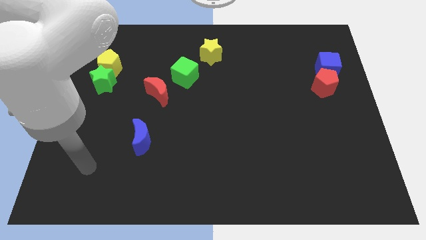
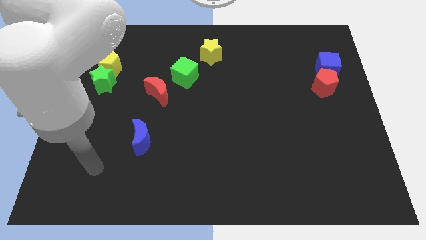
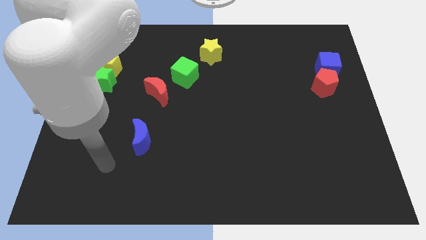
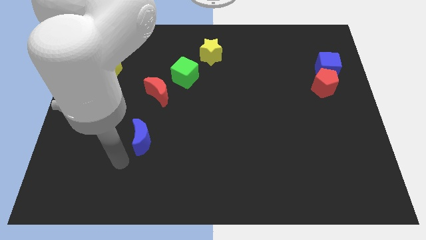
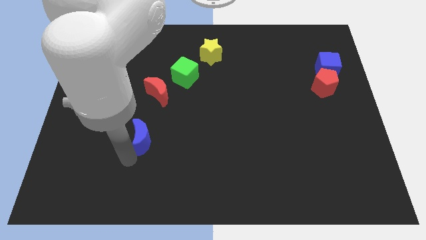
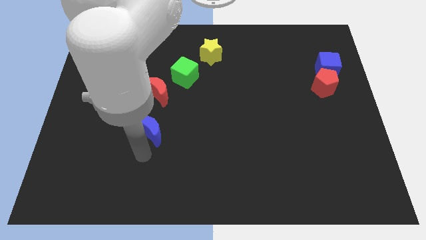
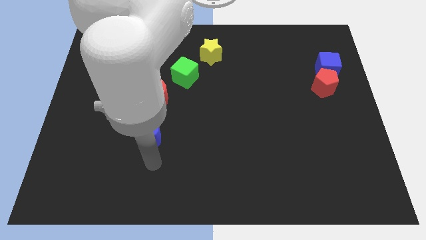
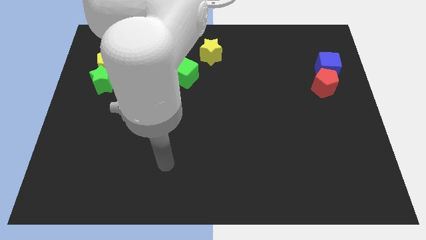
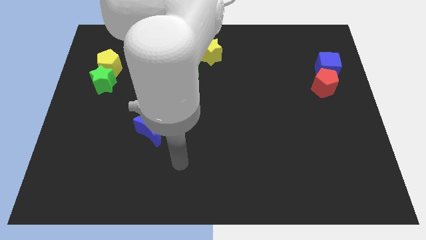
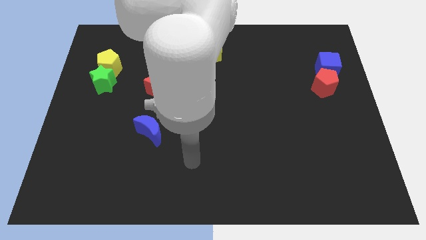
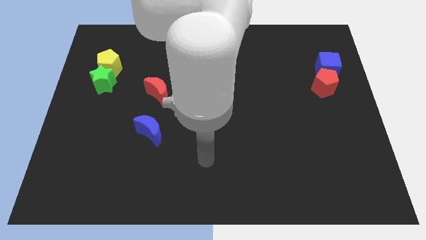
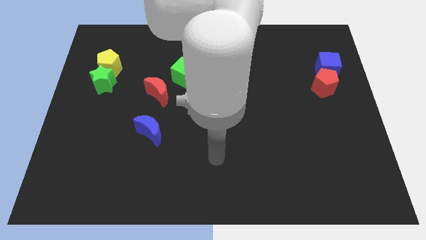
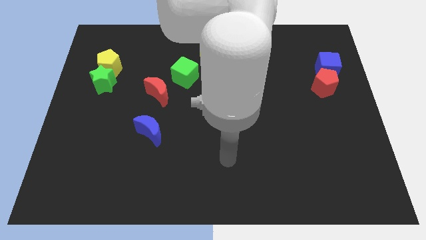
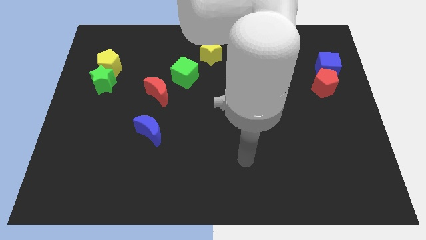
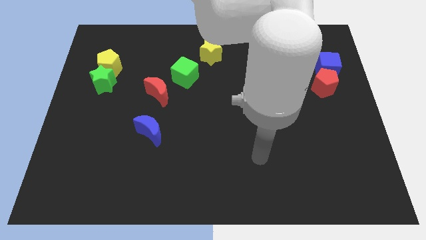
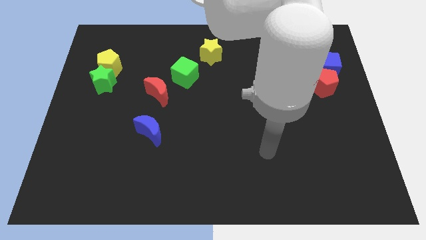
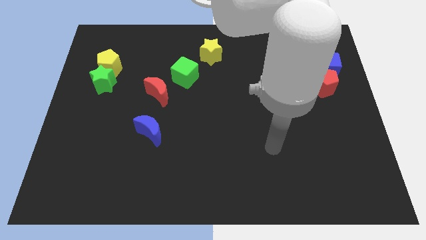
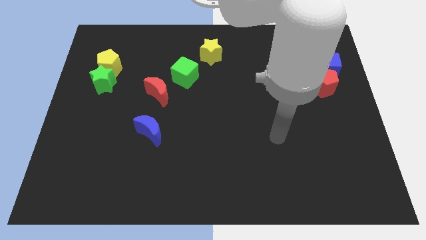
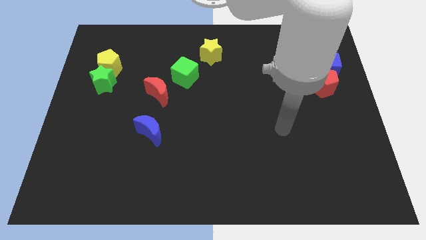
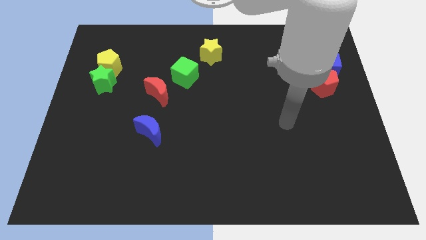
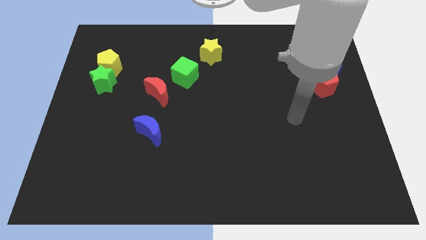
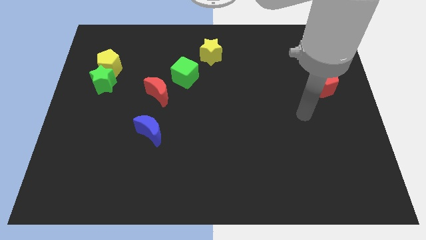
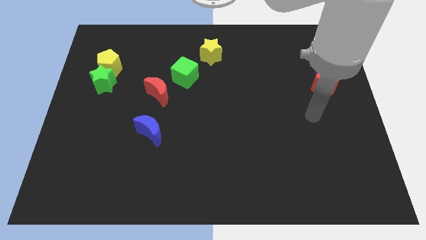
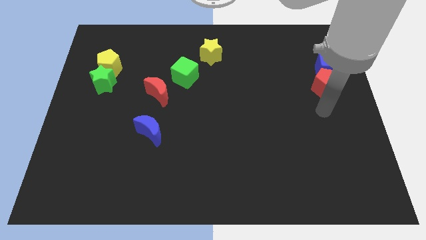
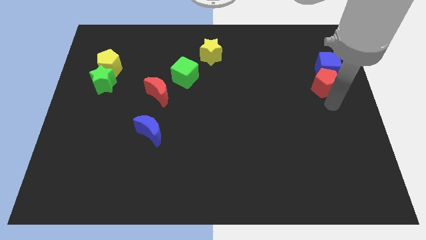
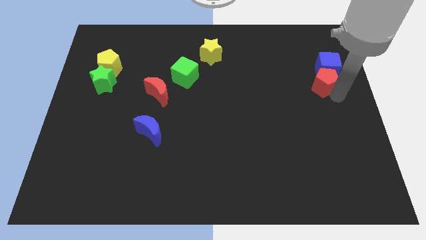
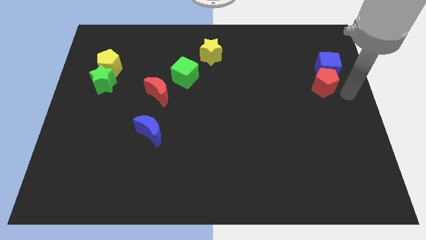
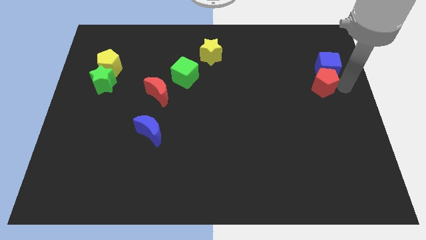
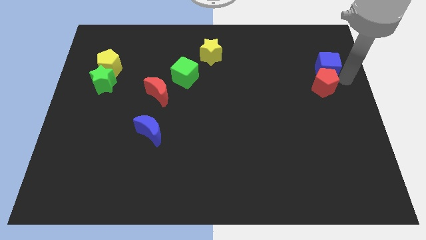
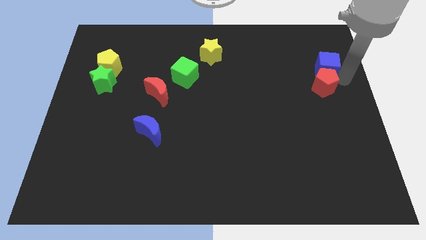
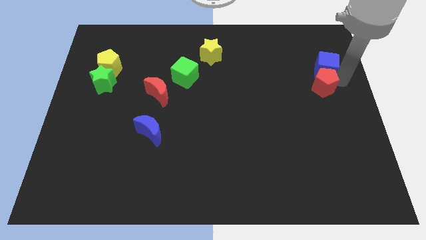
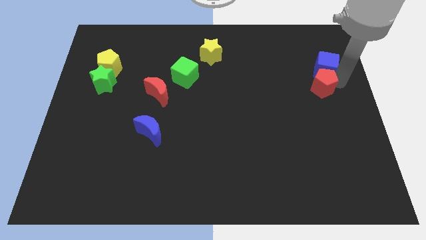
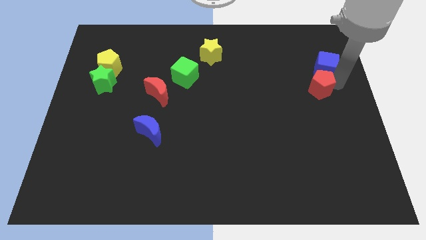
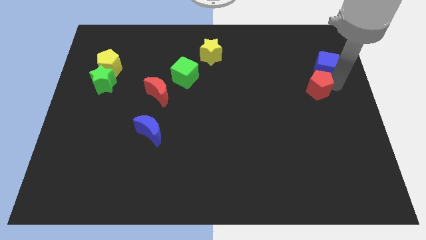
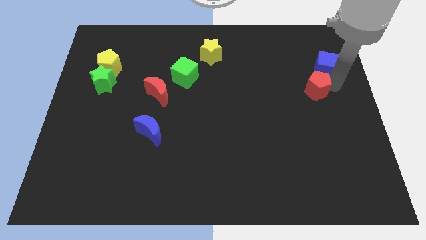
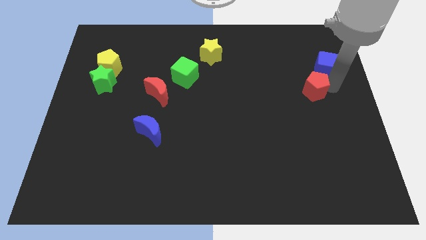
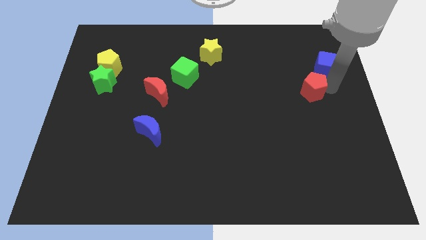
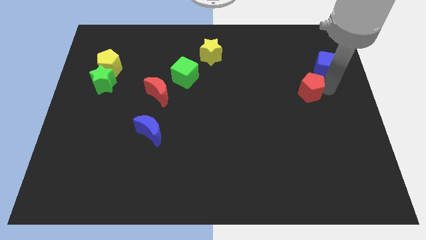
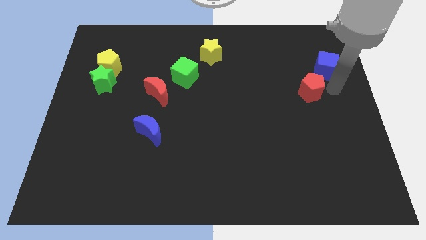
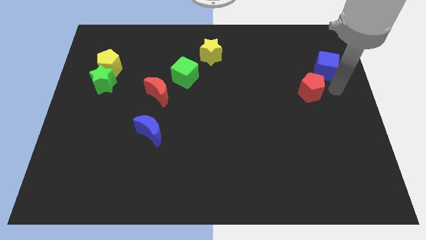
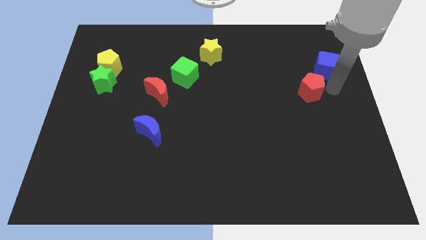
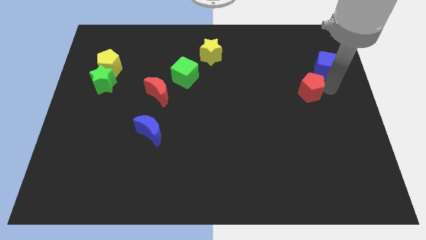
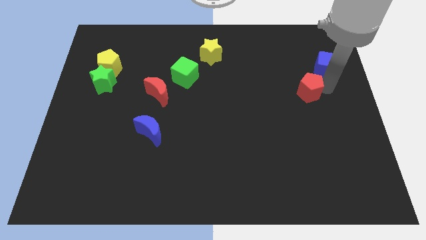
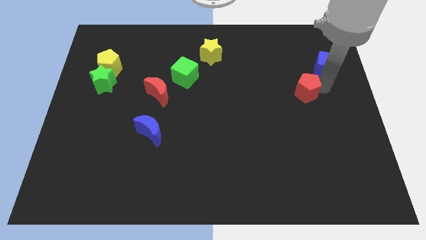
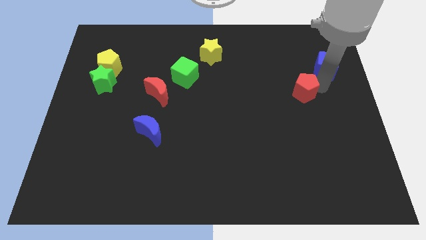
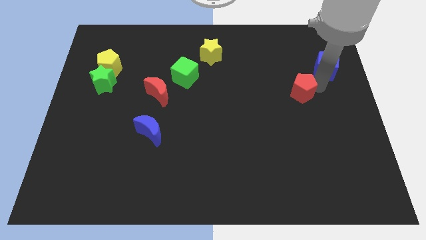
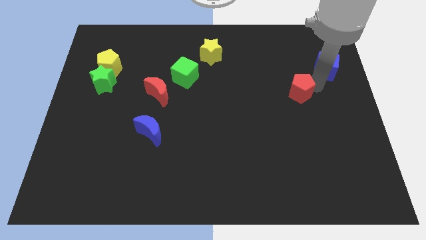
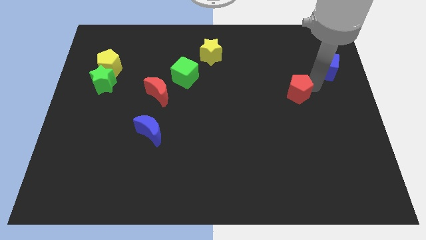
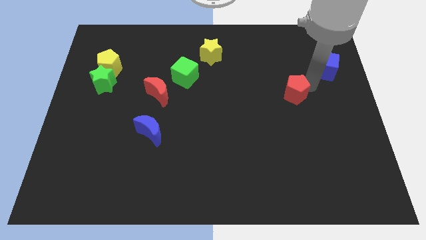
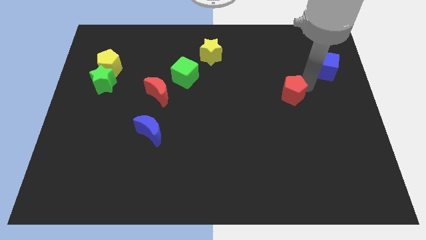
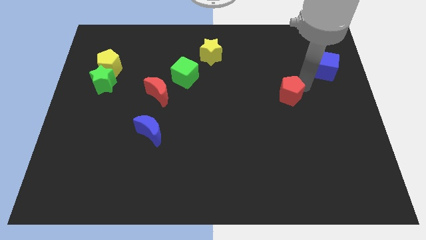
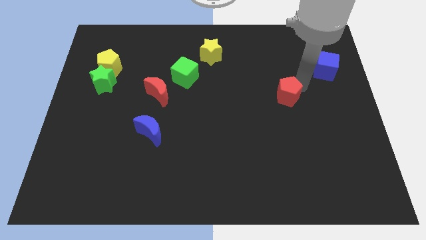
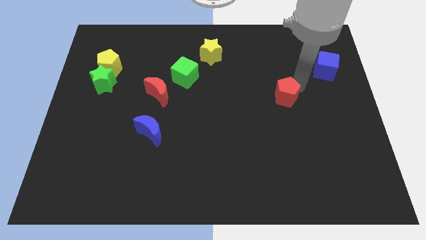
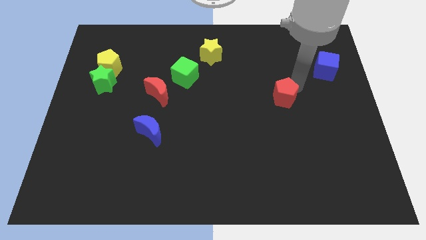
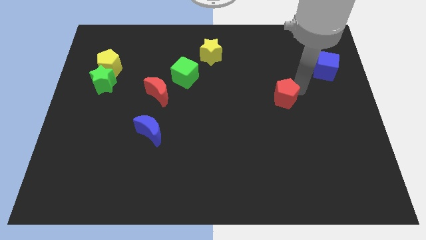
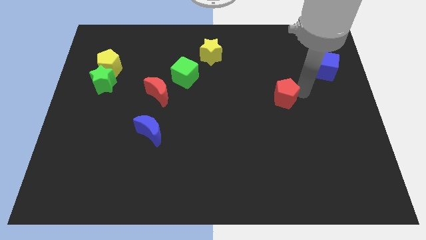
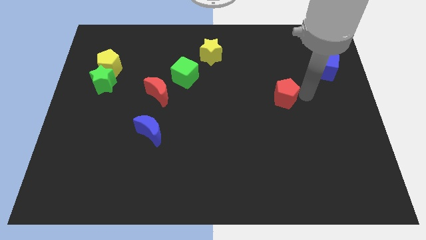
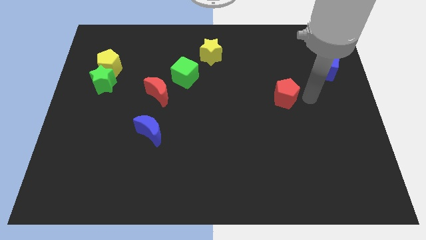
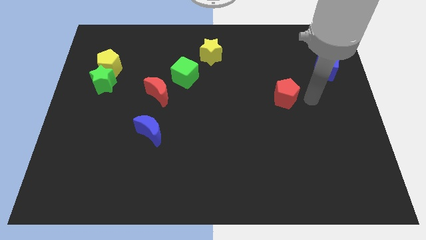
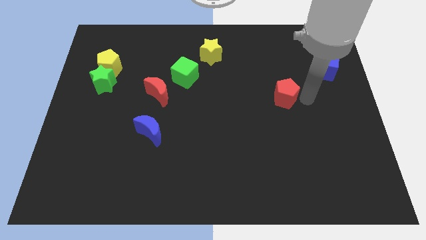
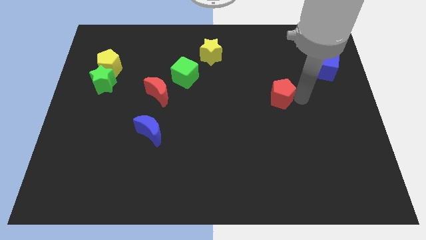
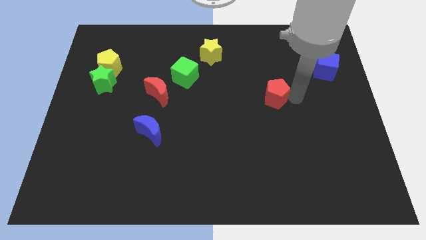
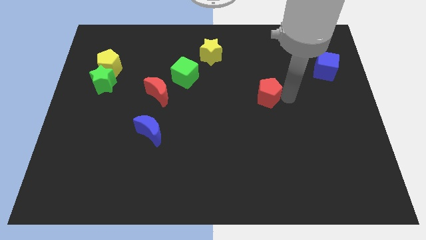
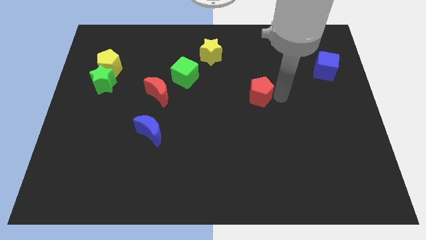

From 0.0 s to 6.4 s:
put the red pentagon to the center of the board

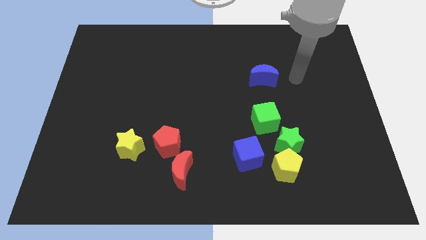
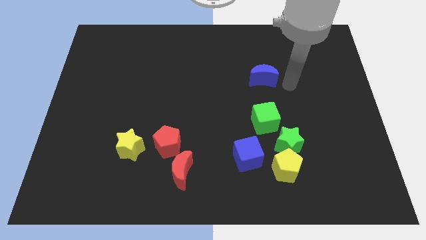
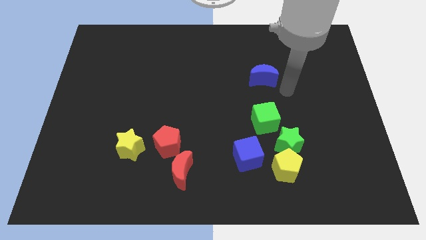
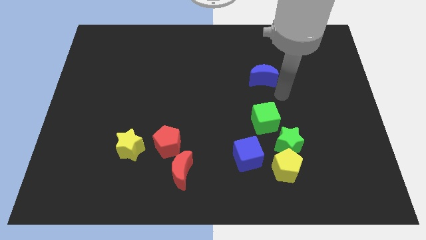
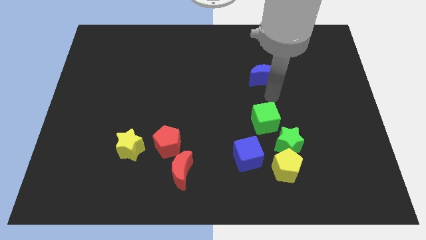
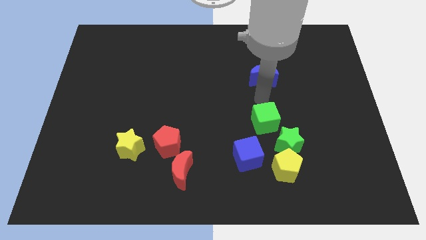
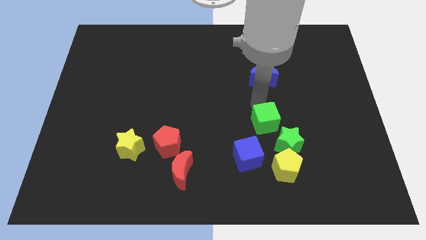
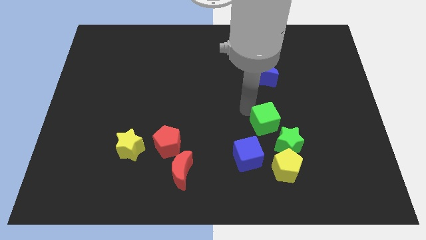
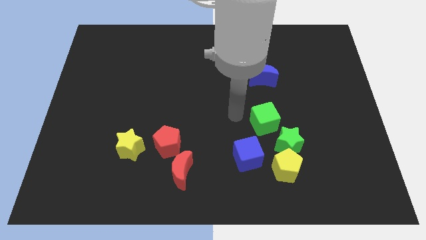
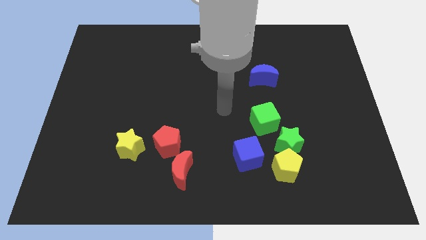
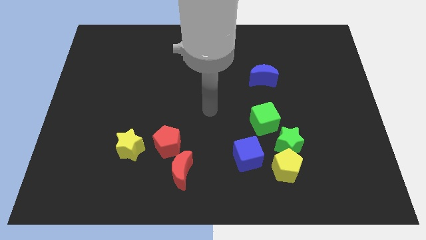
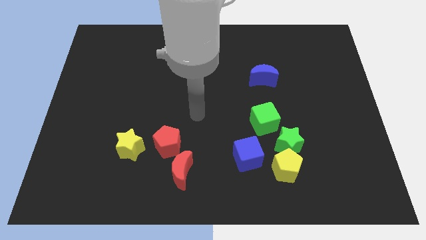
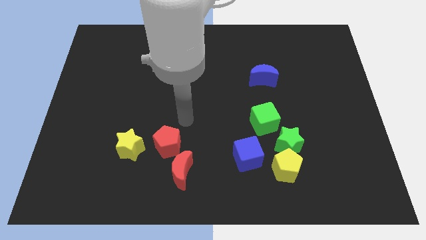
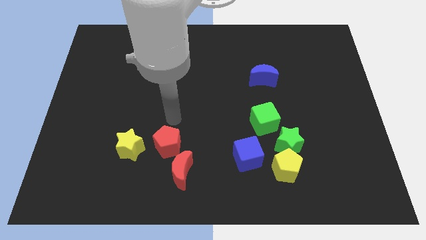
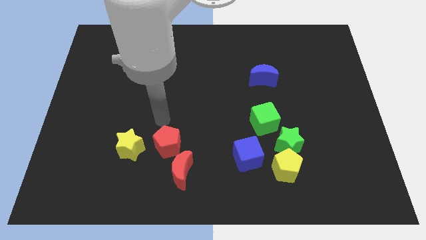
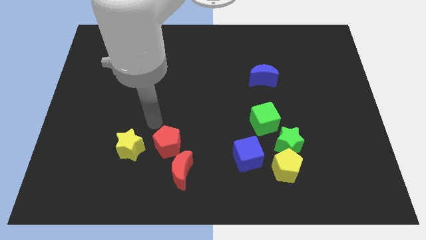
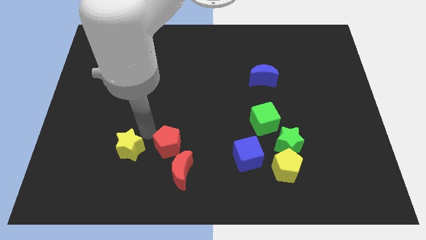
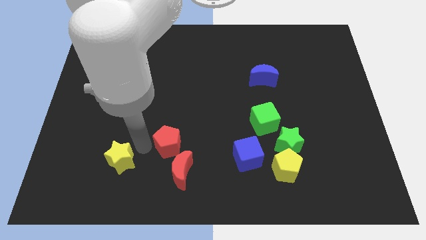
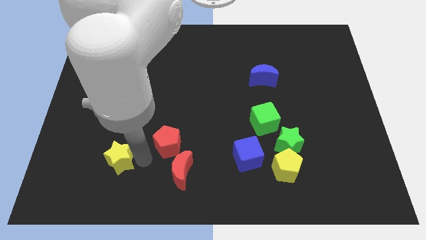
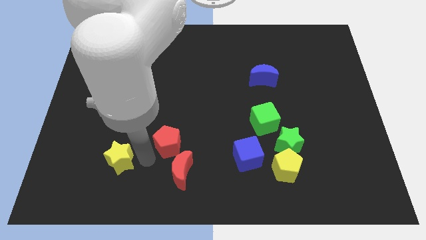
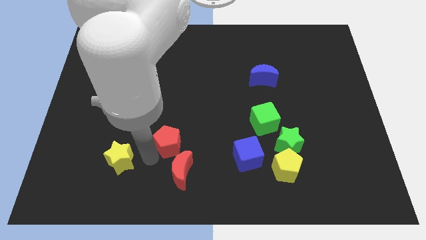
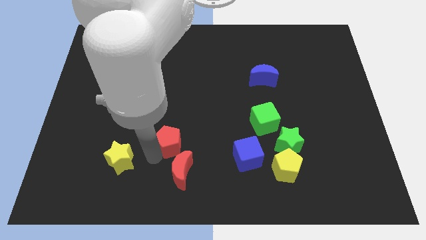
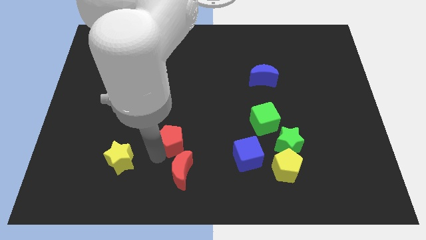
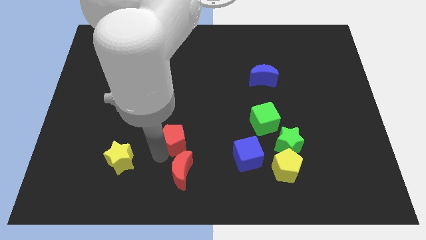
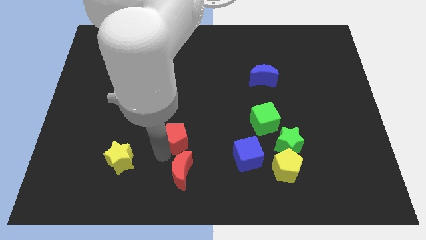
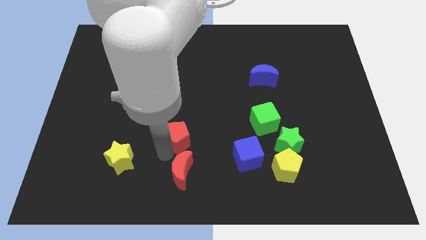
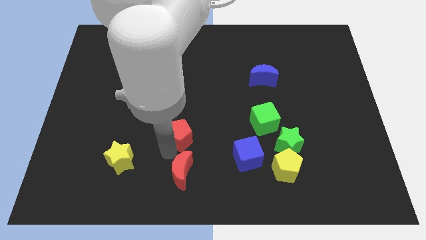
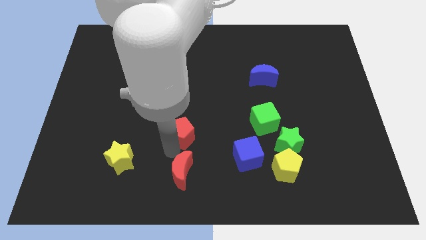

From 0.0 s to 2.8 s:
slide the red pentagon to the center of the board
